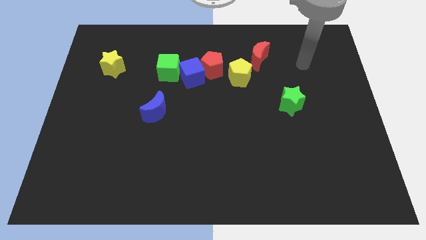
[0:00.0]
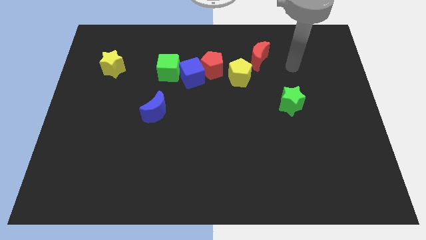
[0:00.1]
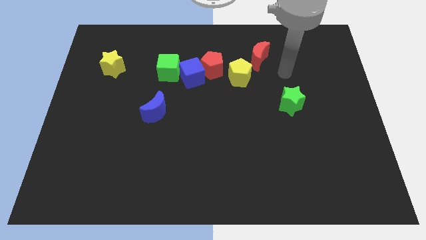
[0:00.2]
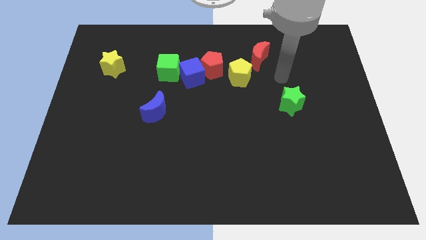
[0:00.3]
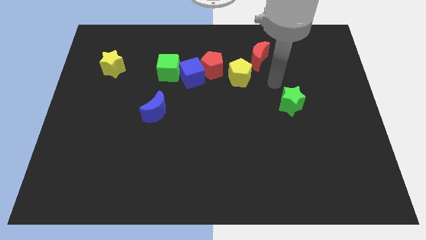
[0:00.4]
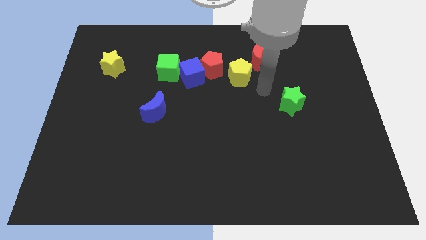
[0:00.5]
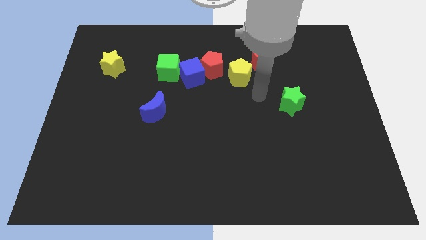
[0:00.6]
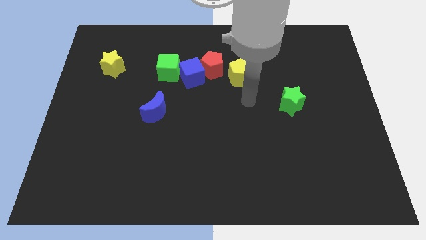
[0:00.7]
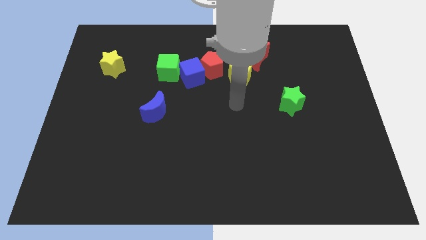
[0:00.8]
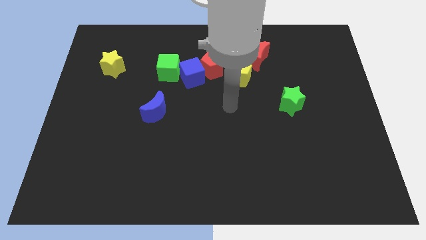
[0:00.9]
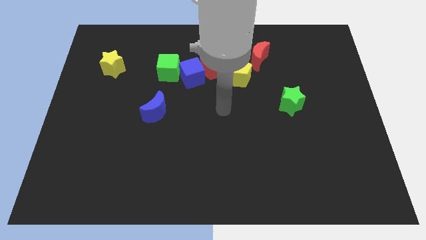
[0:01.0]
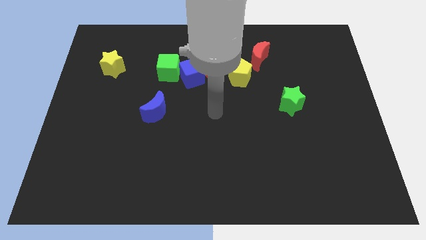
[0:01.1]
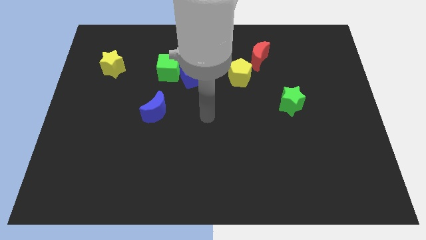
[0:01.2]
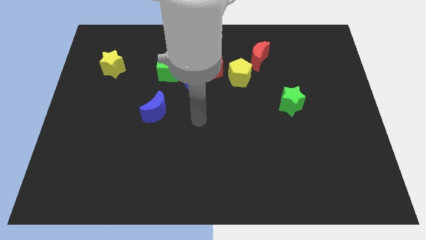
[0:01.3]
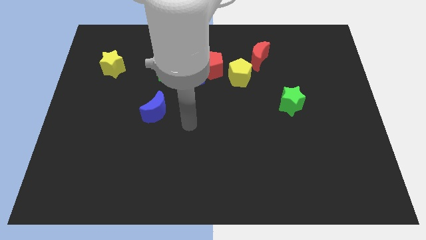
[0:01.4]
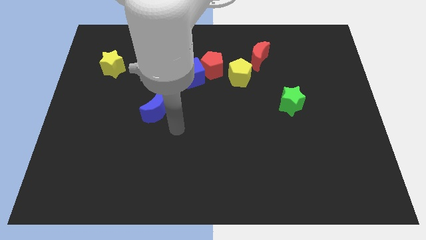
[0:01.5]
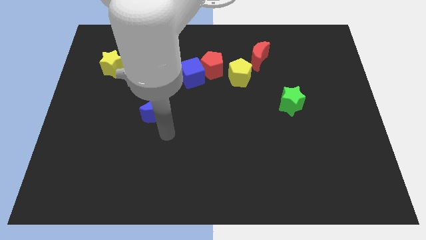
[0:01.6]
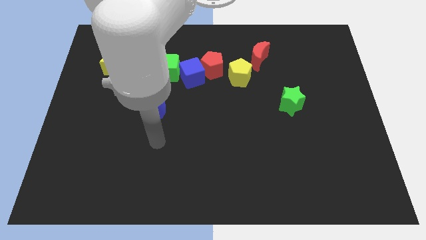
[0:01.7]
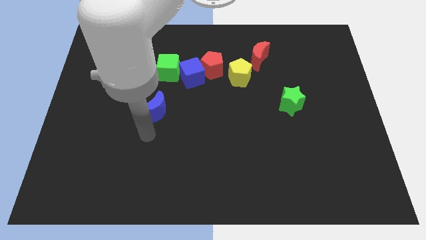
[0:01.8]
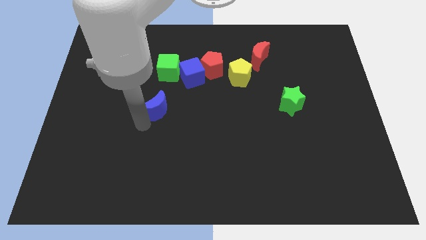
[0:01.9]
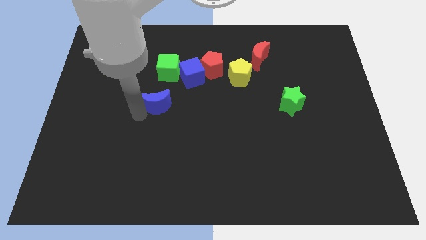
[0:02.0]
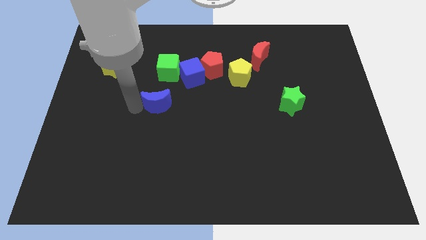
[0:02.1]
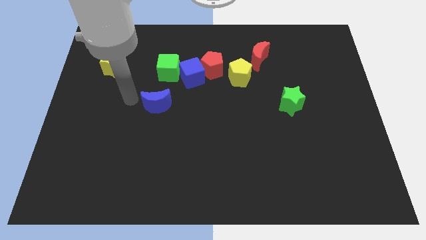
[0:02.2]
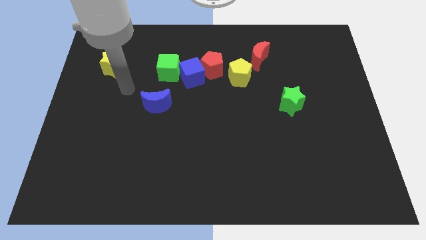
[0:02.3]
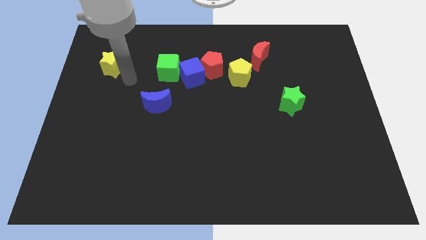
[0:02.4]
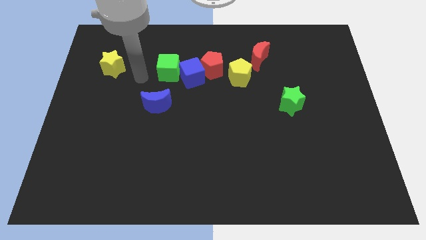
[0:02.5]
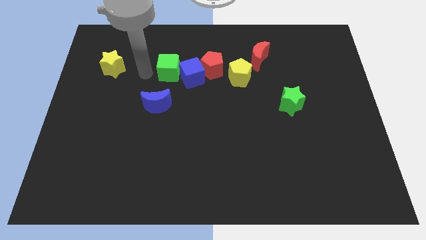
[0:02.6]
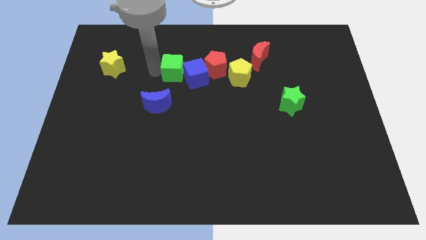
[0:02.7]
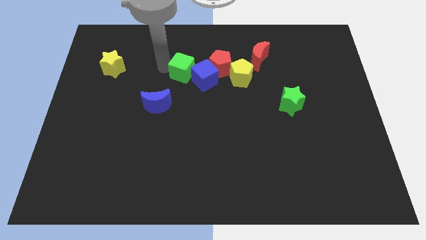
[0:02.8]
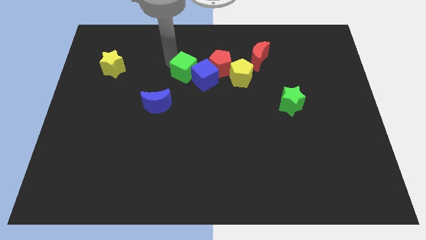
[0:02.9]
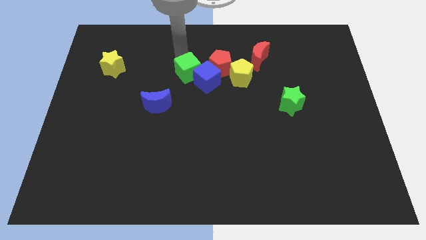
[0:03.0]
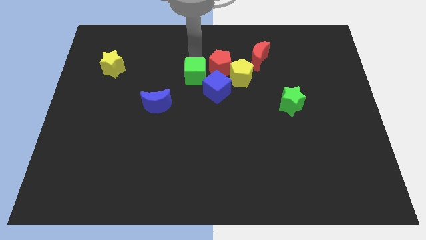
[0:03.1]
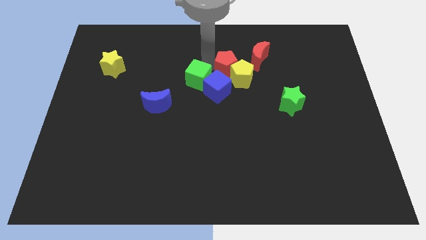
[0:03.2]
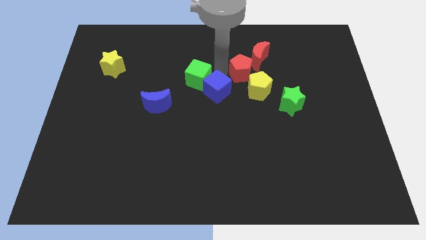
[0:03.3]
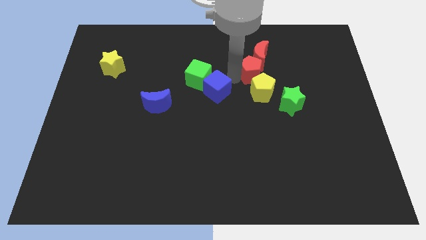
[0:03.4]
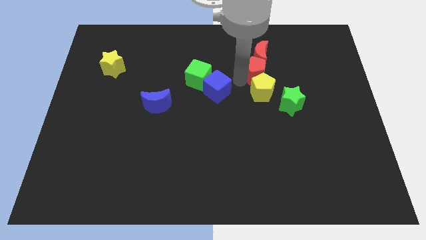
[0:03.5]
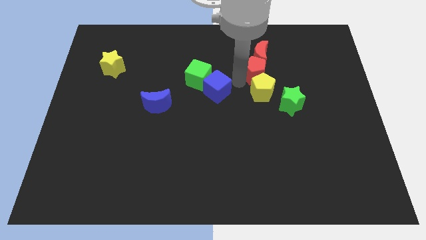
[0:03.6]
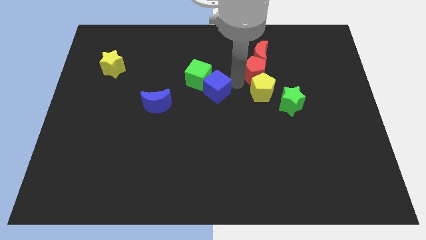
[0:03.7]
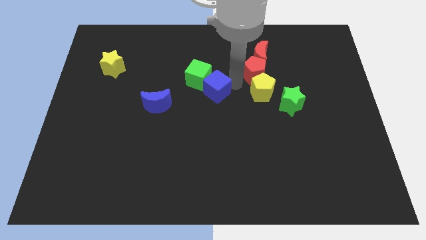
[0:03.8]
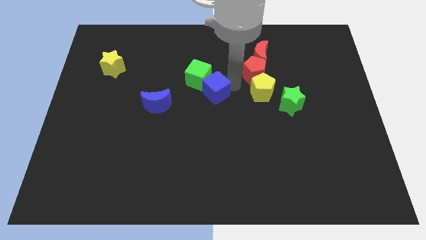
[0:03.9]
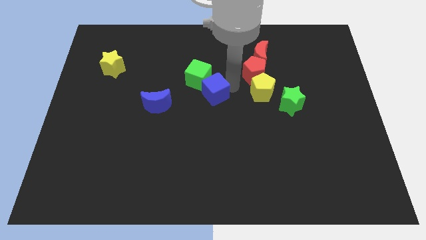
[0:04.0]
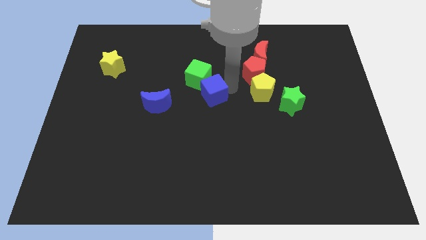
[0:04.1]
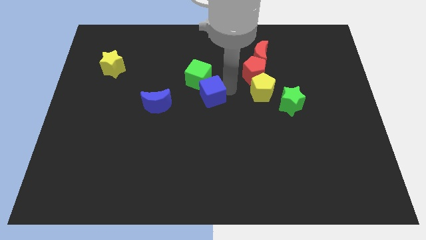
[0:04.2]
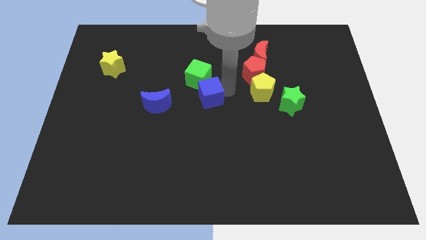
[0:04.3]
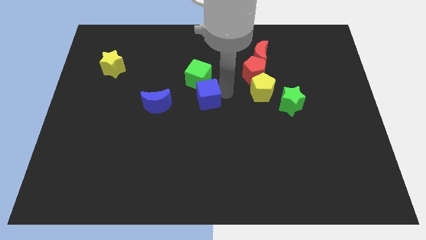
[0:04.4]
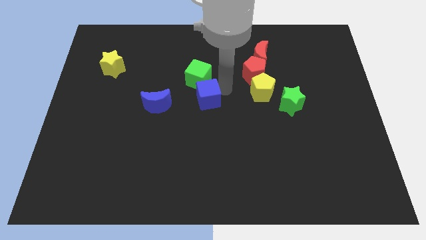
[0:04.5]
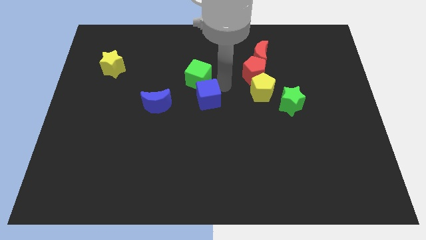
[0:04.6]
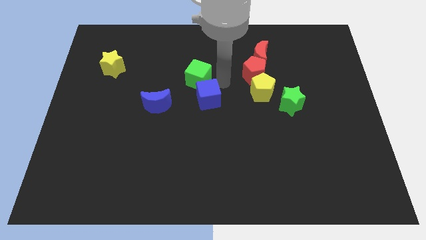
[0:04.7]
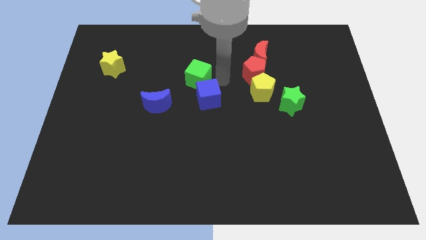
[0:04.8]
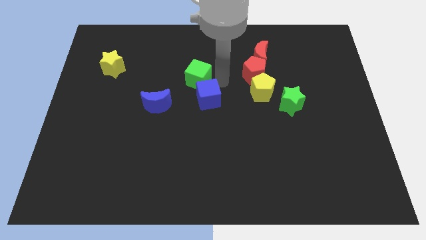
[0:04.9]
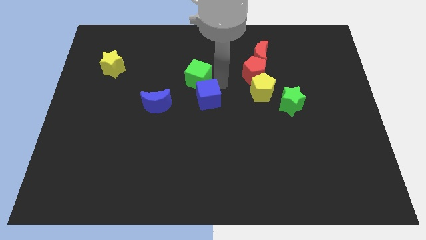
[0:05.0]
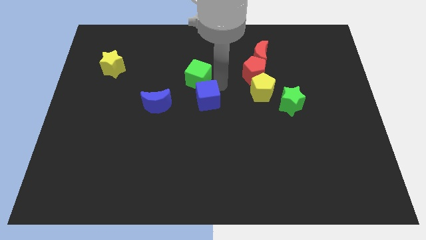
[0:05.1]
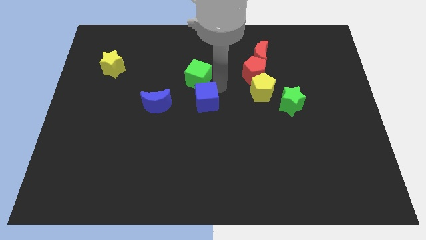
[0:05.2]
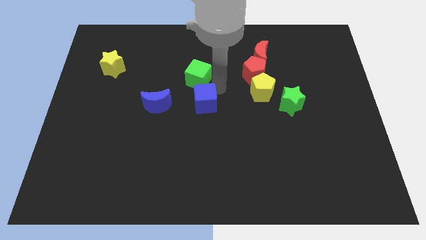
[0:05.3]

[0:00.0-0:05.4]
pull the blue cube apart from the red pentagon and green cube

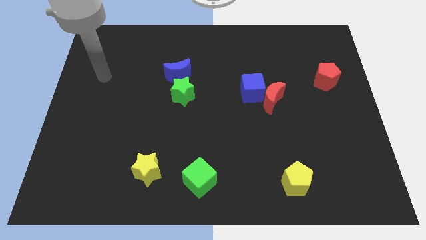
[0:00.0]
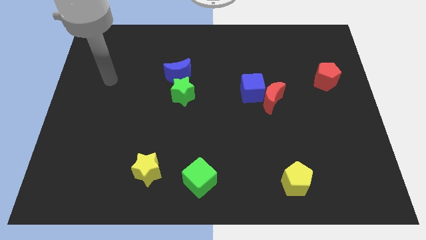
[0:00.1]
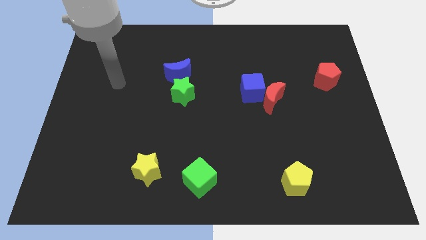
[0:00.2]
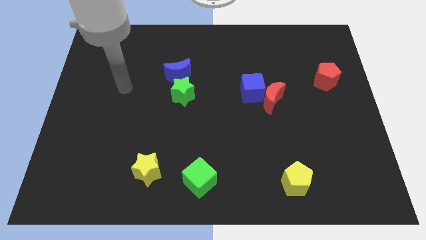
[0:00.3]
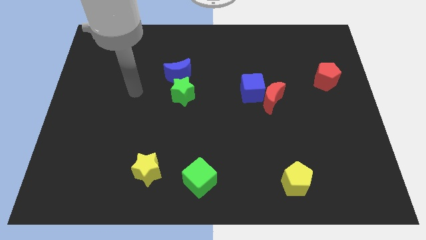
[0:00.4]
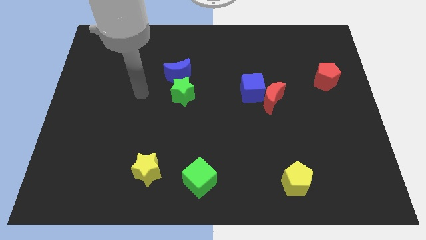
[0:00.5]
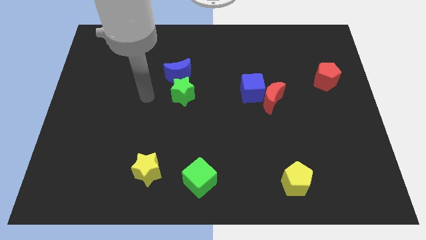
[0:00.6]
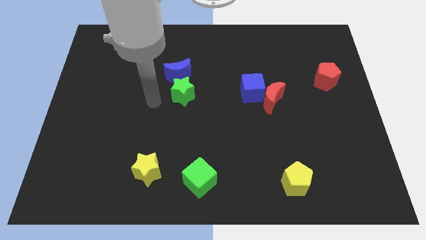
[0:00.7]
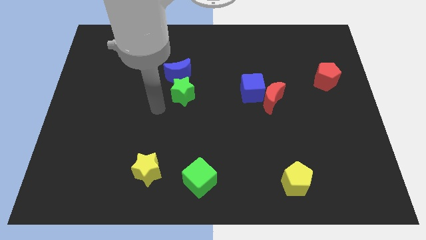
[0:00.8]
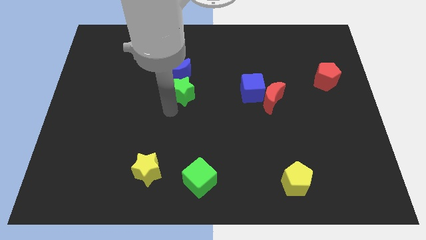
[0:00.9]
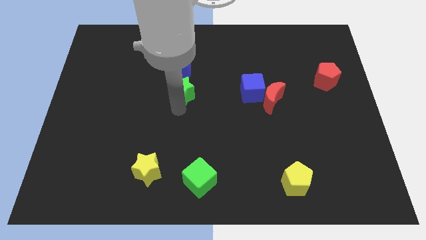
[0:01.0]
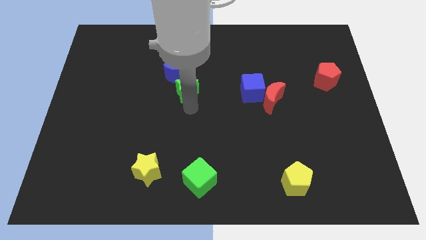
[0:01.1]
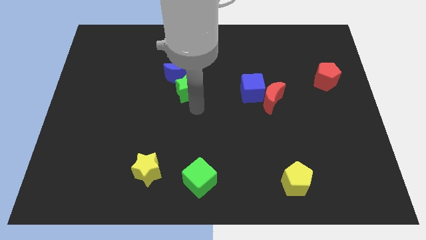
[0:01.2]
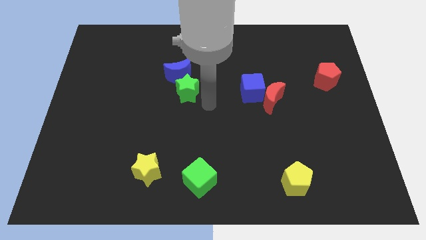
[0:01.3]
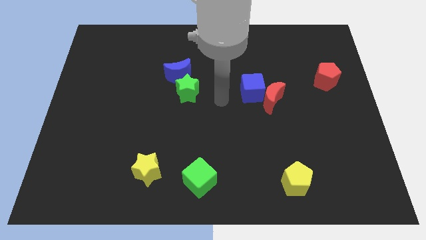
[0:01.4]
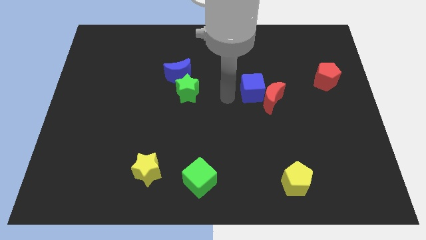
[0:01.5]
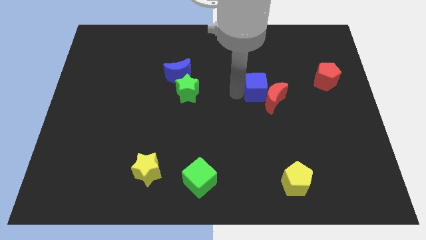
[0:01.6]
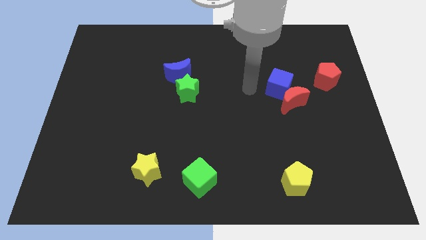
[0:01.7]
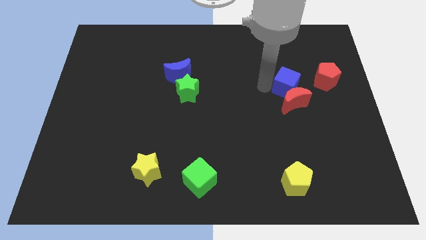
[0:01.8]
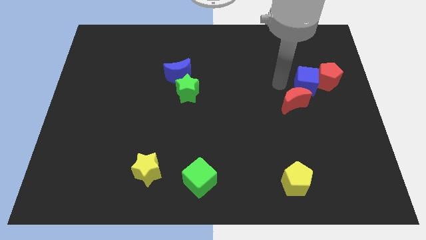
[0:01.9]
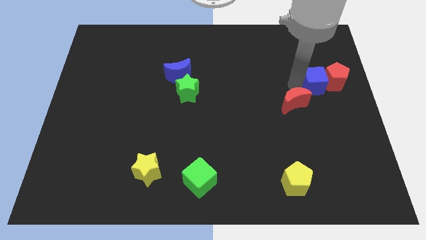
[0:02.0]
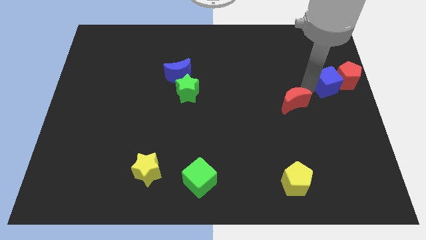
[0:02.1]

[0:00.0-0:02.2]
move the red moon away from the blue cube

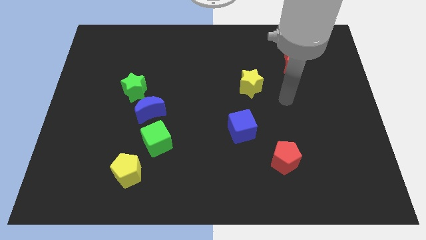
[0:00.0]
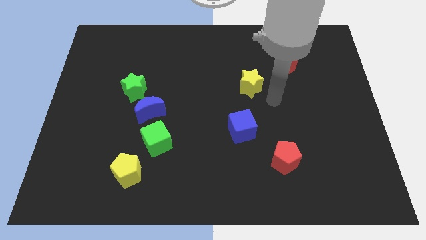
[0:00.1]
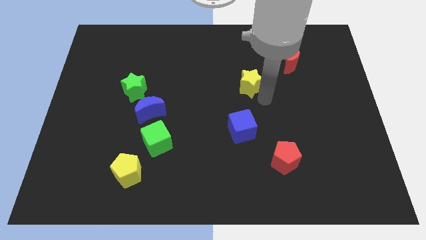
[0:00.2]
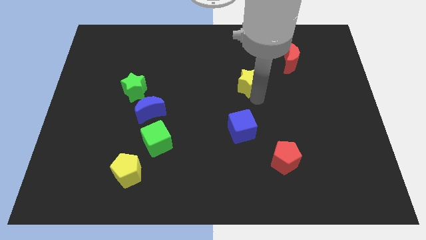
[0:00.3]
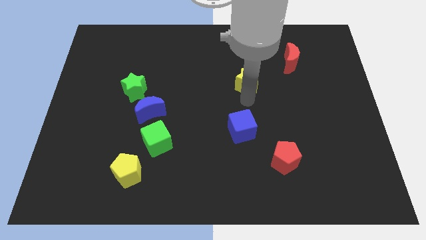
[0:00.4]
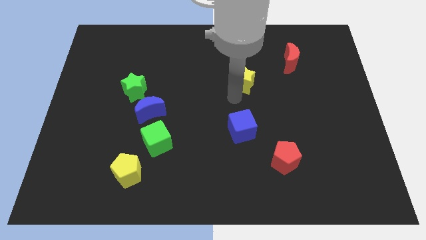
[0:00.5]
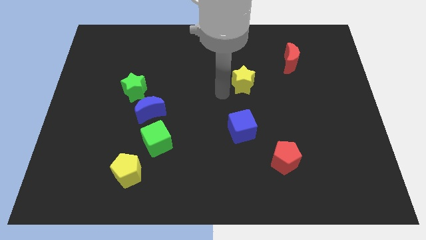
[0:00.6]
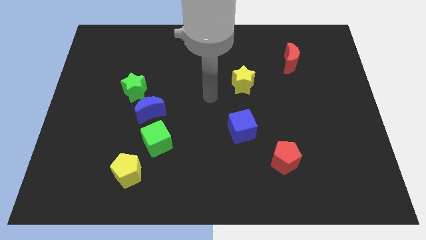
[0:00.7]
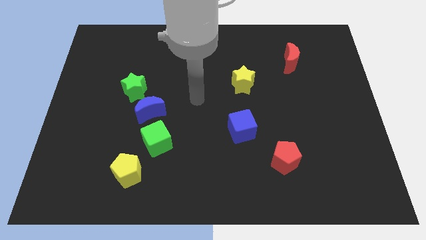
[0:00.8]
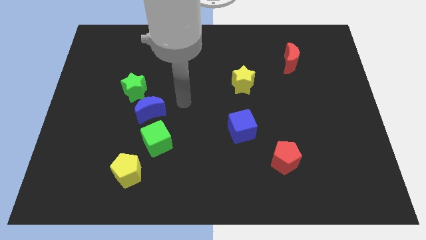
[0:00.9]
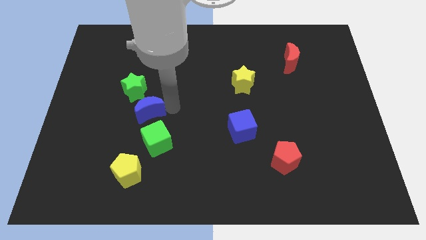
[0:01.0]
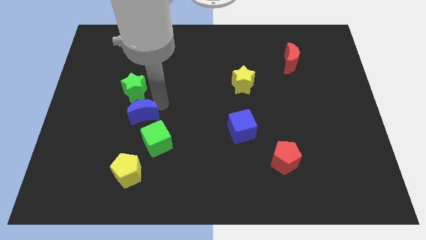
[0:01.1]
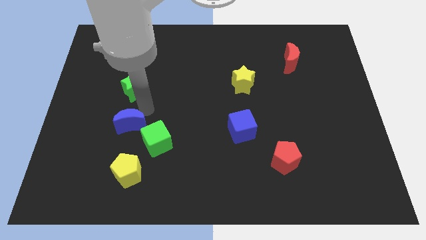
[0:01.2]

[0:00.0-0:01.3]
pull the green star apart from the blue moon

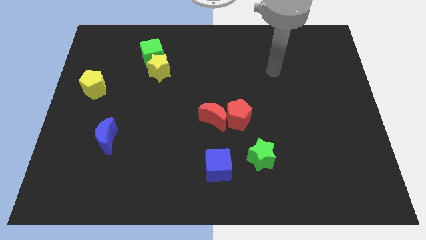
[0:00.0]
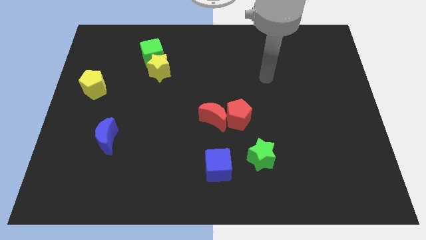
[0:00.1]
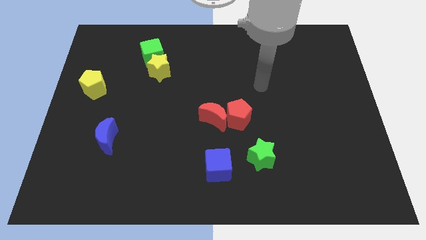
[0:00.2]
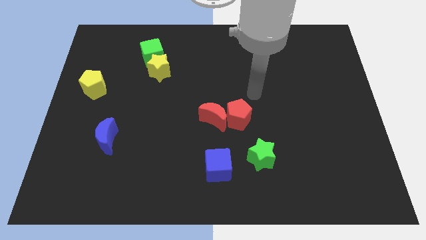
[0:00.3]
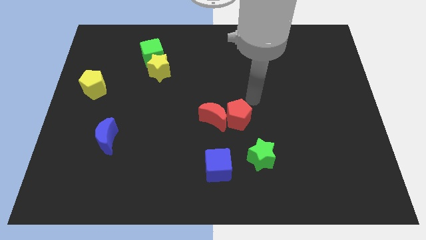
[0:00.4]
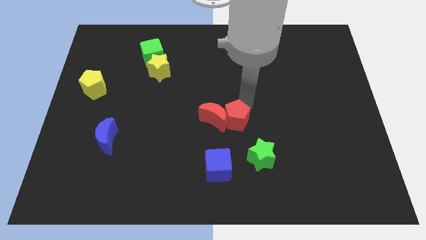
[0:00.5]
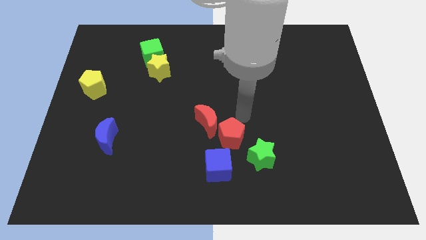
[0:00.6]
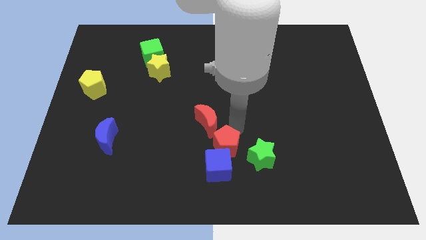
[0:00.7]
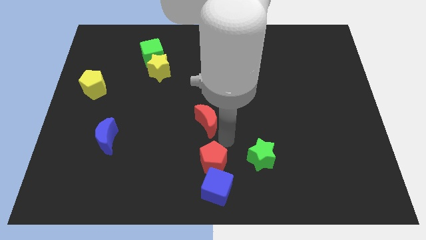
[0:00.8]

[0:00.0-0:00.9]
pull the red moon apart from the red pentagon
